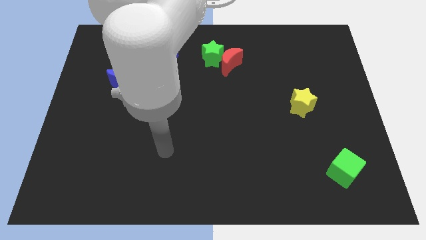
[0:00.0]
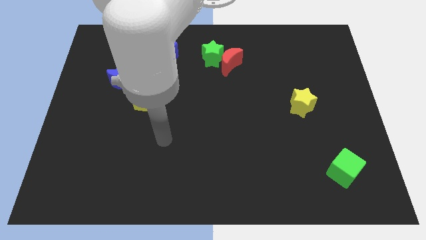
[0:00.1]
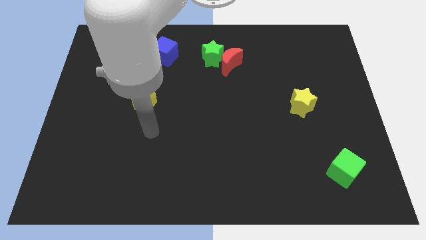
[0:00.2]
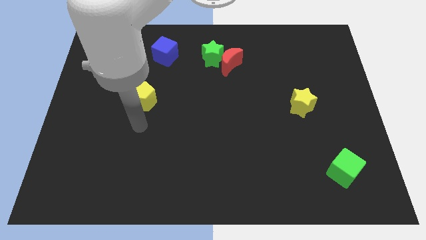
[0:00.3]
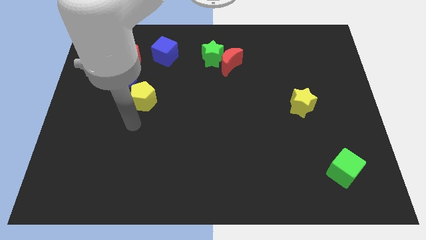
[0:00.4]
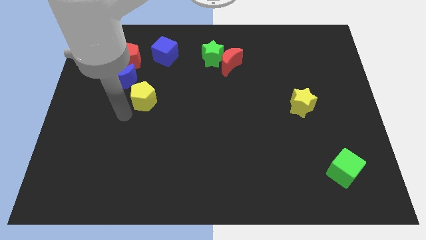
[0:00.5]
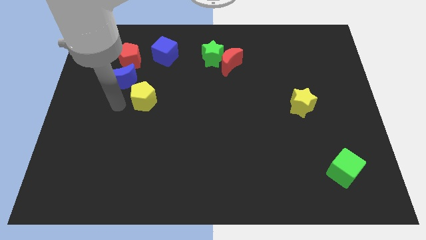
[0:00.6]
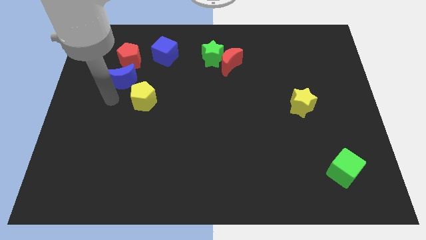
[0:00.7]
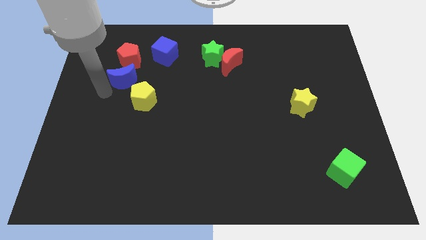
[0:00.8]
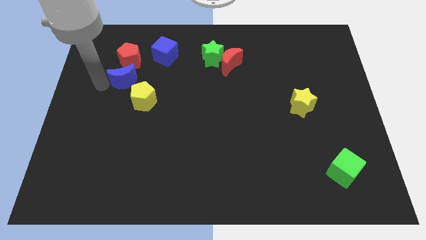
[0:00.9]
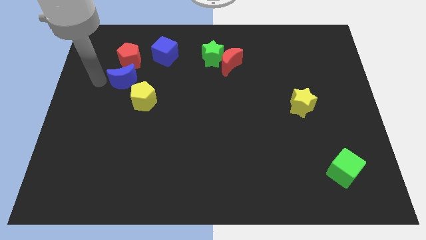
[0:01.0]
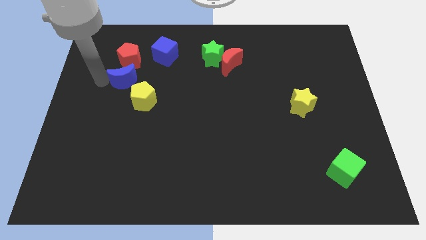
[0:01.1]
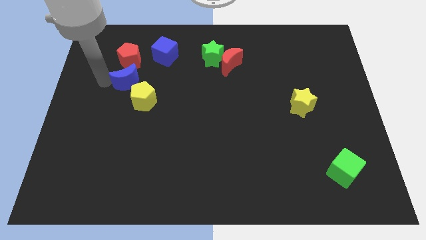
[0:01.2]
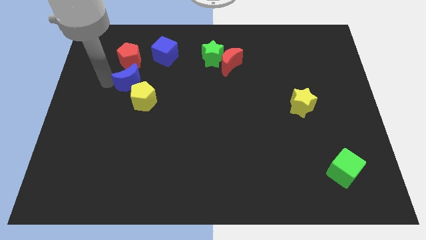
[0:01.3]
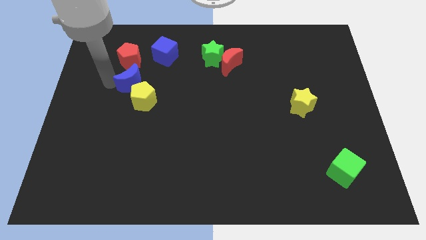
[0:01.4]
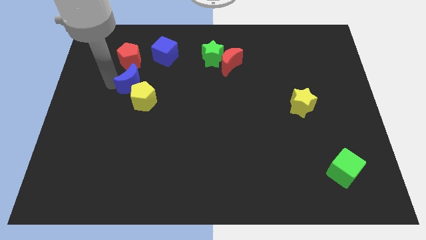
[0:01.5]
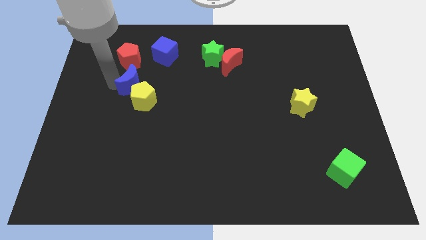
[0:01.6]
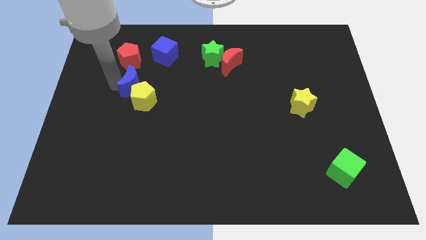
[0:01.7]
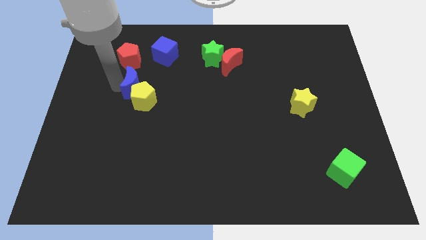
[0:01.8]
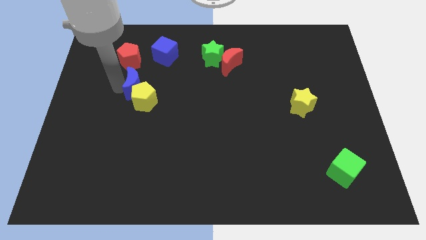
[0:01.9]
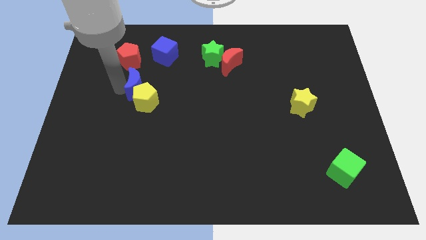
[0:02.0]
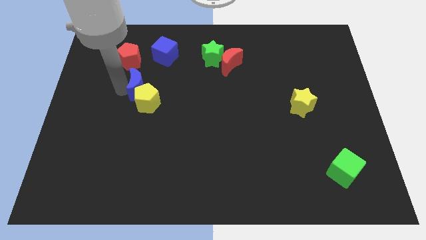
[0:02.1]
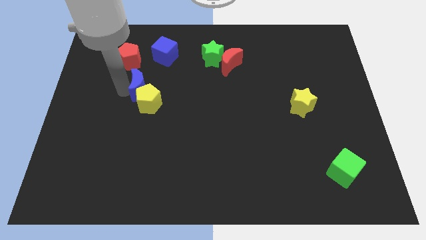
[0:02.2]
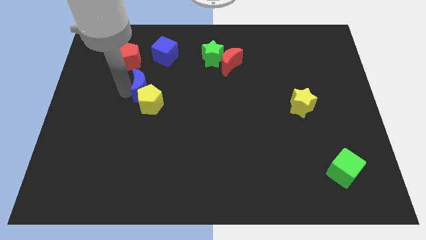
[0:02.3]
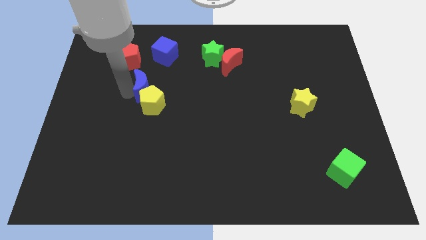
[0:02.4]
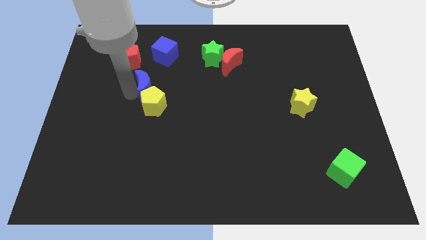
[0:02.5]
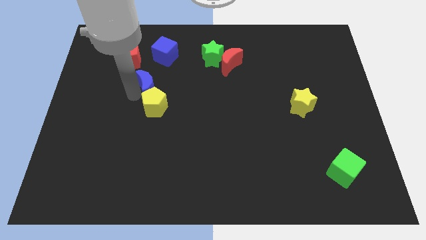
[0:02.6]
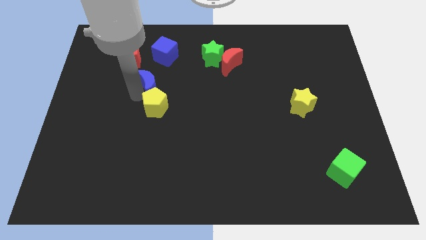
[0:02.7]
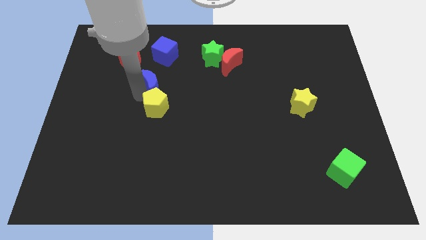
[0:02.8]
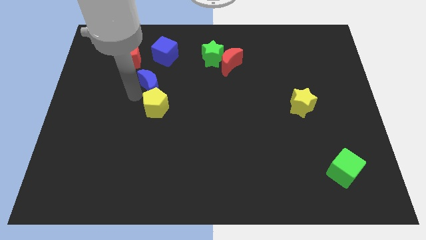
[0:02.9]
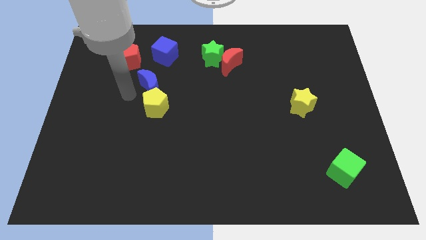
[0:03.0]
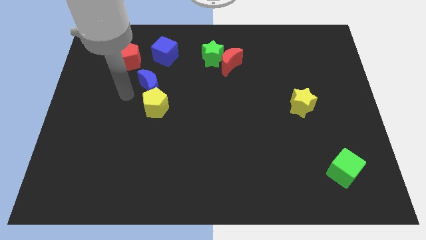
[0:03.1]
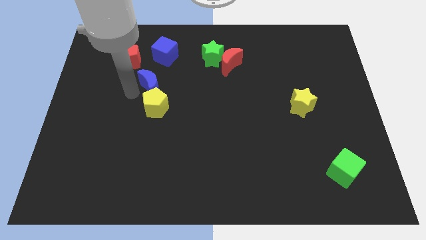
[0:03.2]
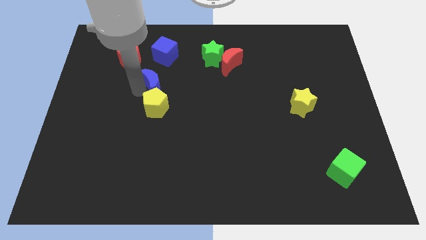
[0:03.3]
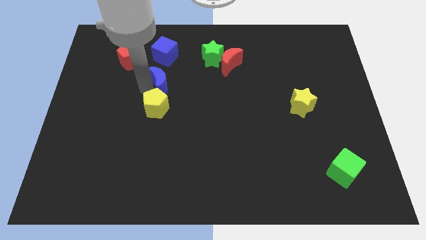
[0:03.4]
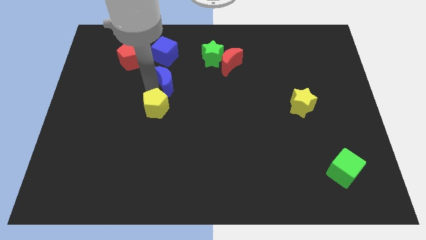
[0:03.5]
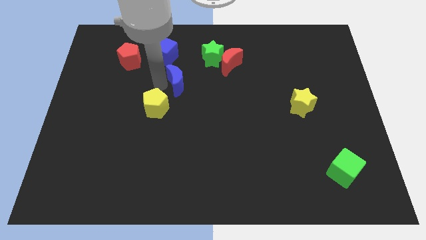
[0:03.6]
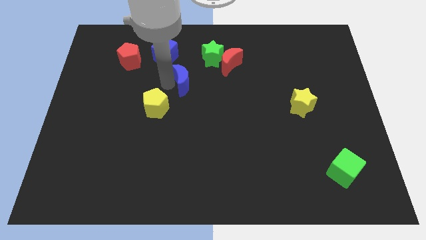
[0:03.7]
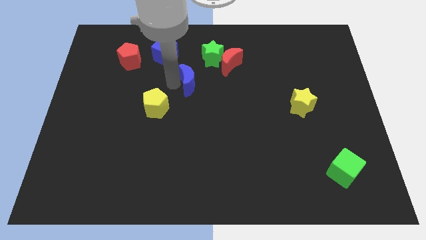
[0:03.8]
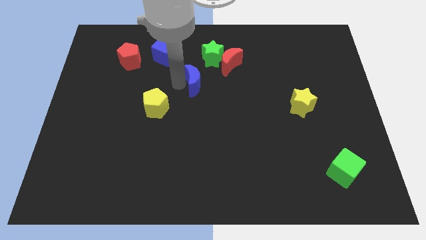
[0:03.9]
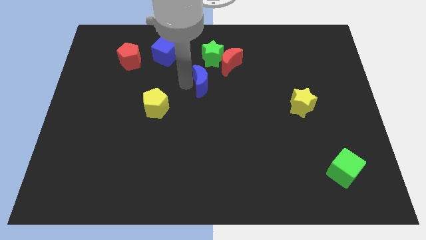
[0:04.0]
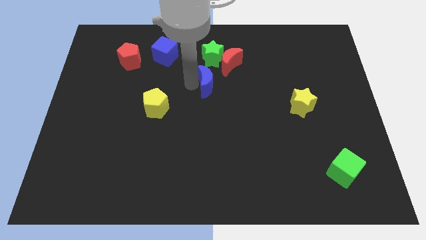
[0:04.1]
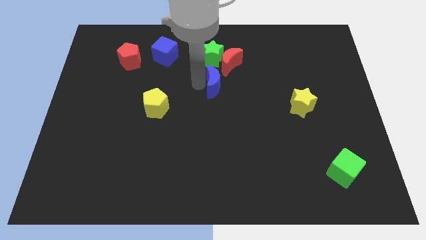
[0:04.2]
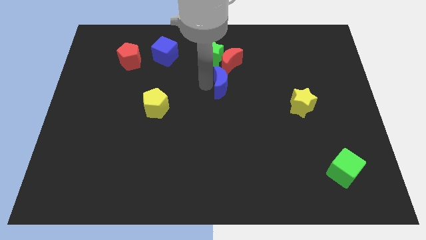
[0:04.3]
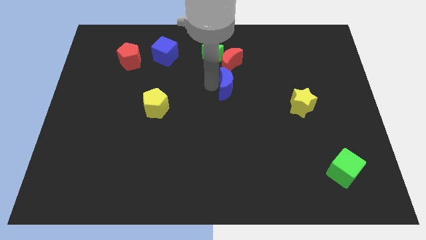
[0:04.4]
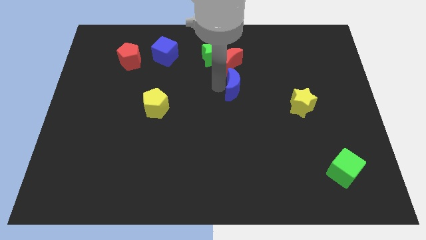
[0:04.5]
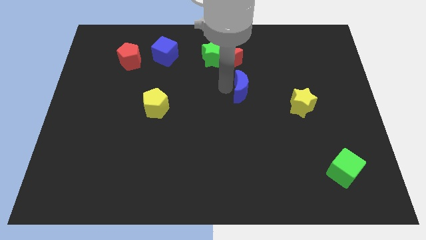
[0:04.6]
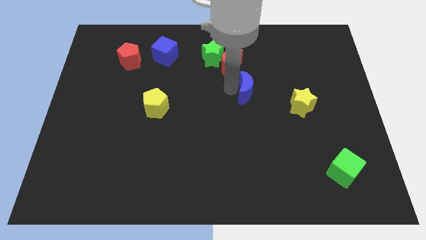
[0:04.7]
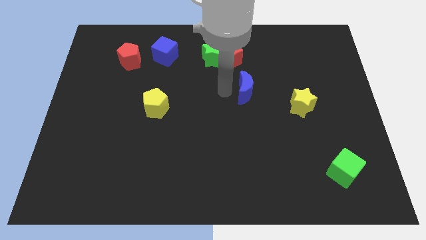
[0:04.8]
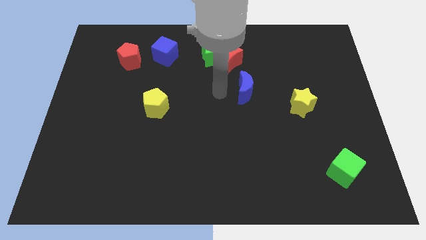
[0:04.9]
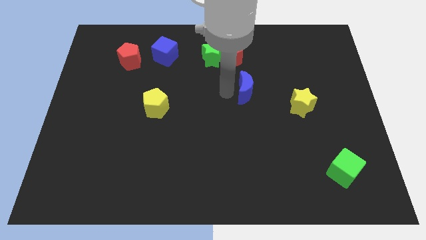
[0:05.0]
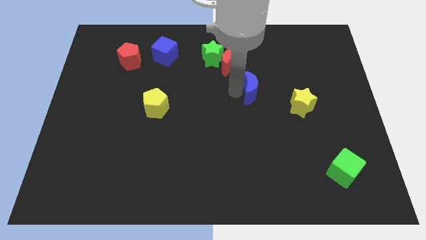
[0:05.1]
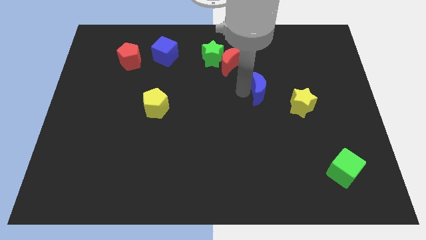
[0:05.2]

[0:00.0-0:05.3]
push the blue moon to the top left of the yellow star

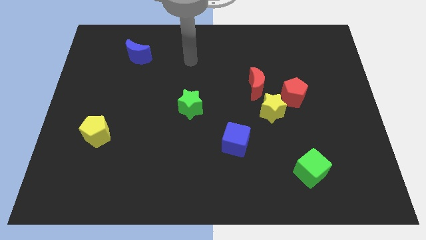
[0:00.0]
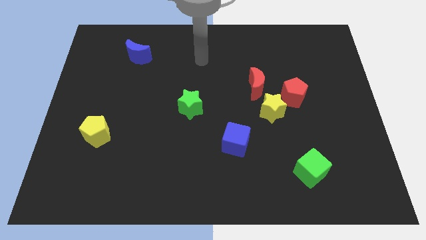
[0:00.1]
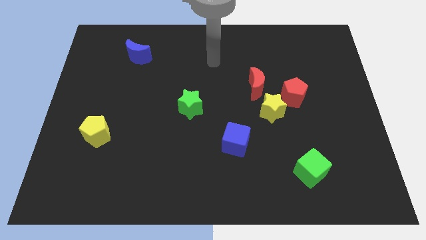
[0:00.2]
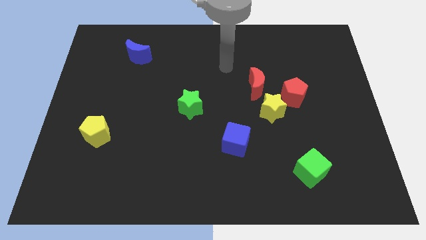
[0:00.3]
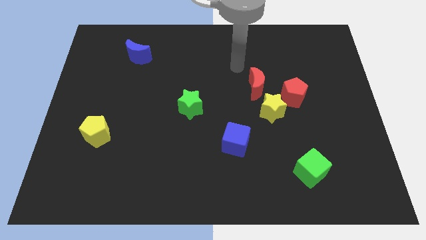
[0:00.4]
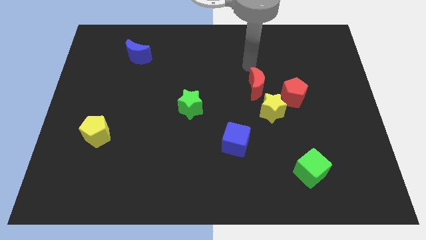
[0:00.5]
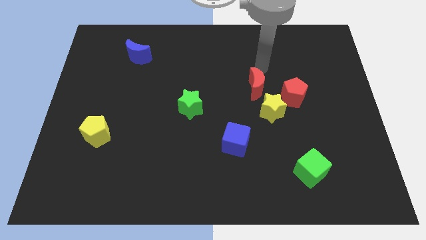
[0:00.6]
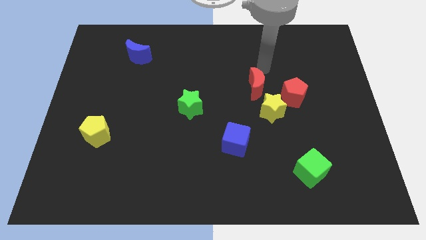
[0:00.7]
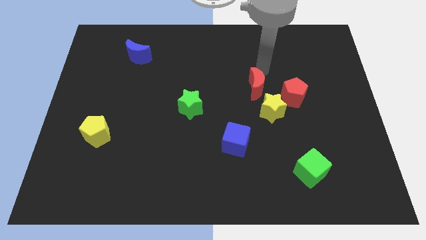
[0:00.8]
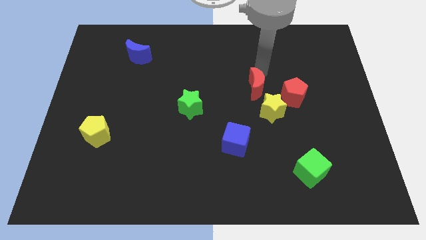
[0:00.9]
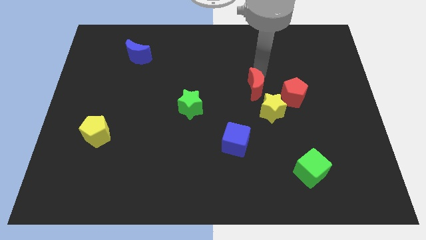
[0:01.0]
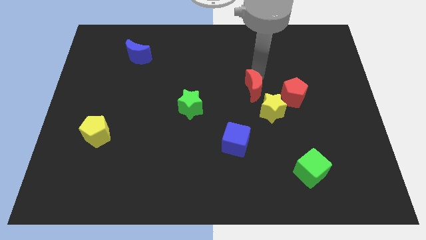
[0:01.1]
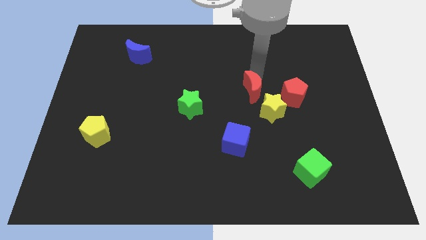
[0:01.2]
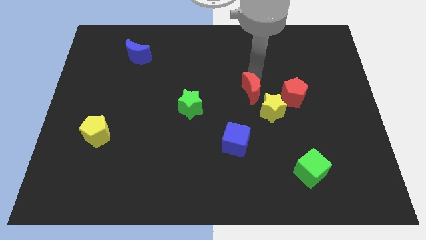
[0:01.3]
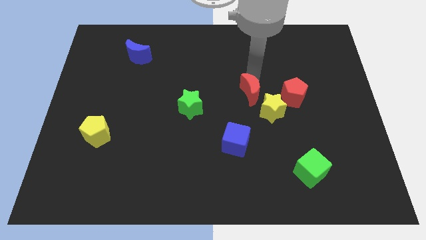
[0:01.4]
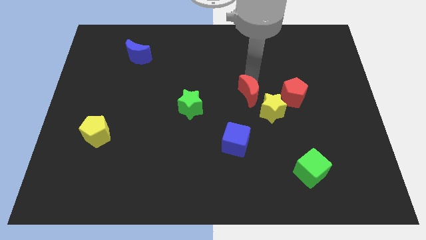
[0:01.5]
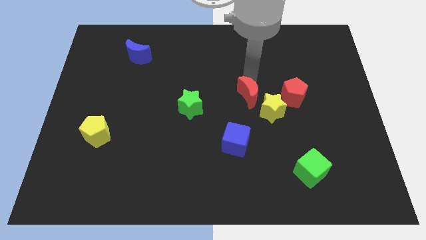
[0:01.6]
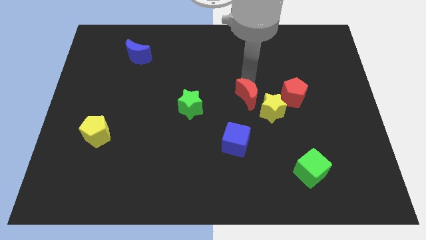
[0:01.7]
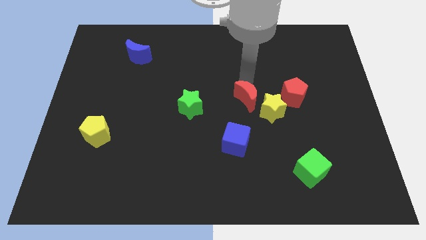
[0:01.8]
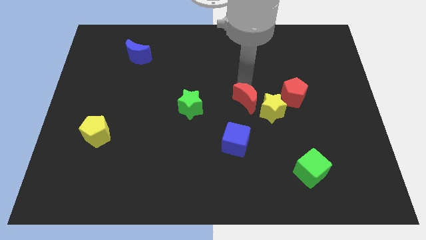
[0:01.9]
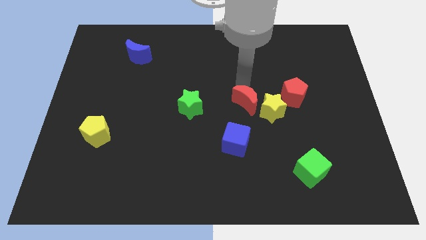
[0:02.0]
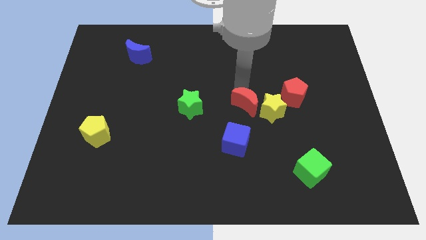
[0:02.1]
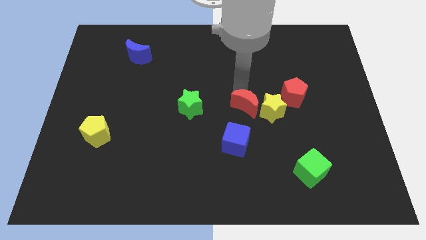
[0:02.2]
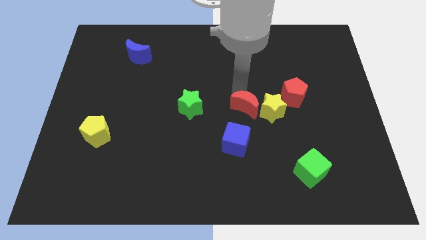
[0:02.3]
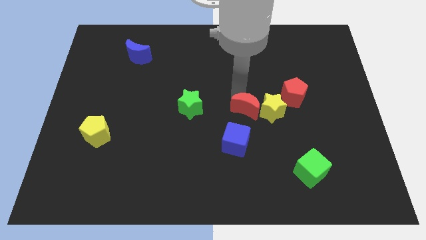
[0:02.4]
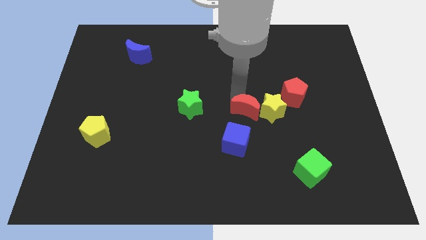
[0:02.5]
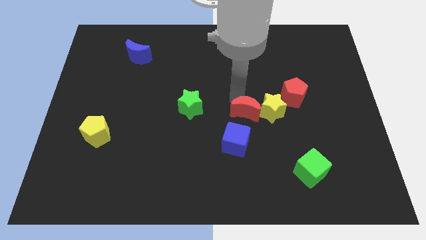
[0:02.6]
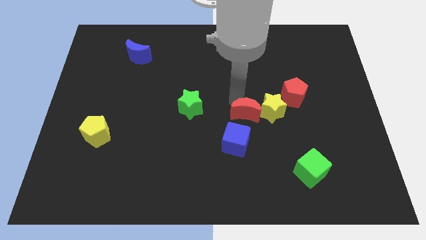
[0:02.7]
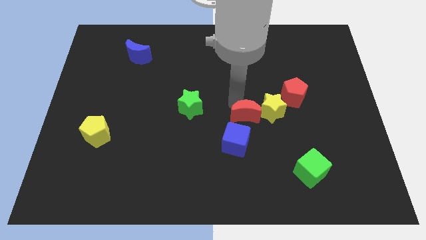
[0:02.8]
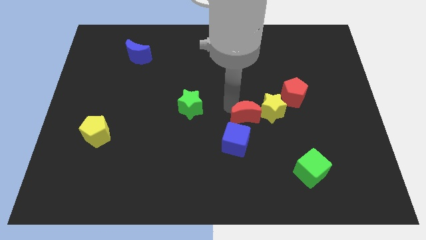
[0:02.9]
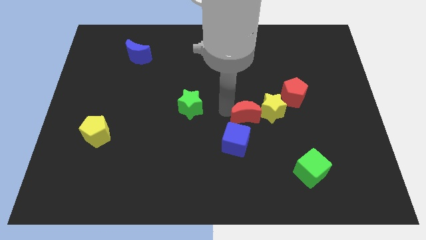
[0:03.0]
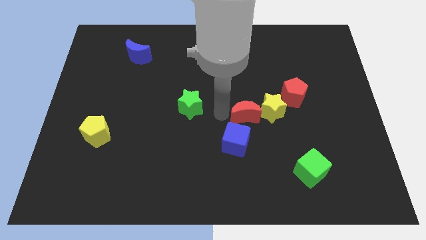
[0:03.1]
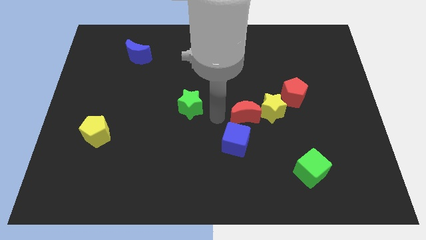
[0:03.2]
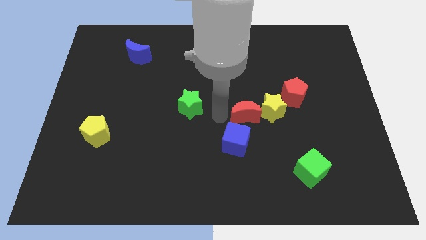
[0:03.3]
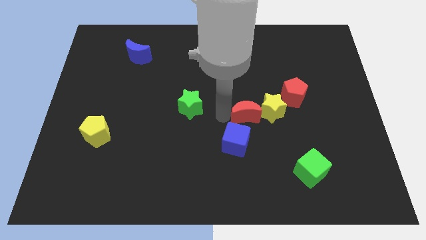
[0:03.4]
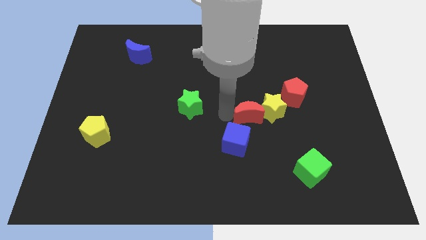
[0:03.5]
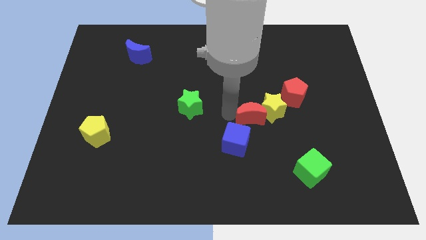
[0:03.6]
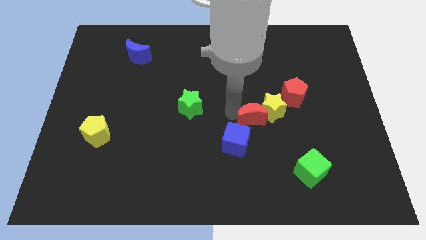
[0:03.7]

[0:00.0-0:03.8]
move the red moon to the bottom left of the red pentagon
